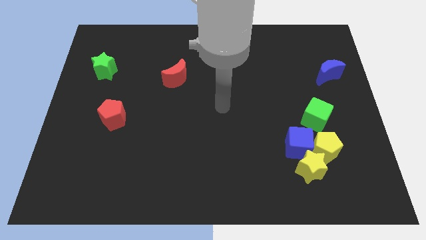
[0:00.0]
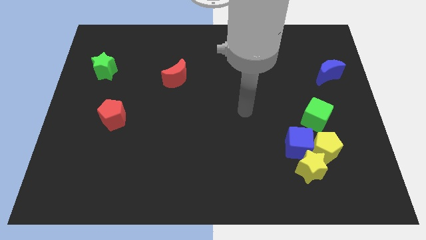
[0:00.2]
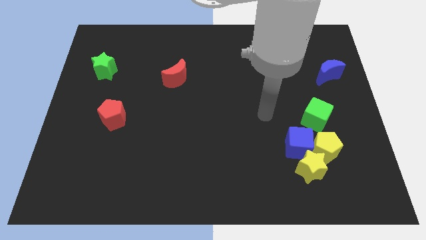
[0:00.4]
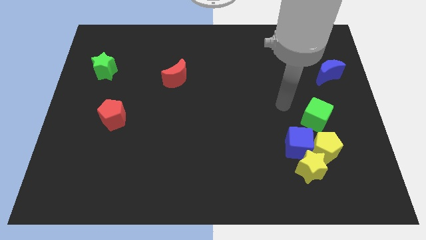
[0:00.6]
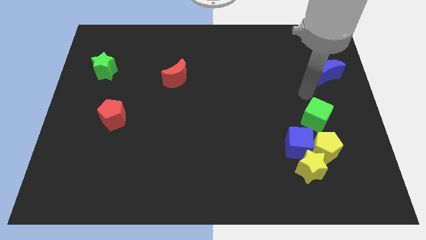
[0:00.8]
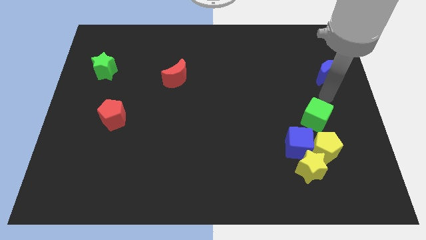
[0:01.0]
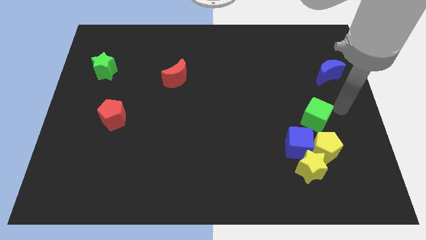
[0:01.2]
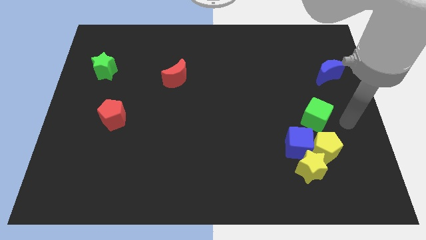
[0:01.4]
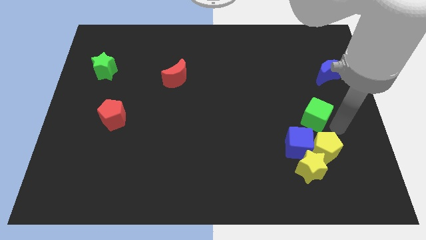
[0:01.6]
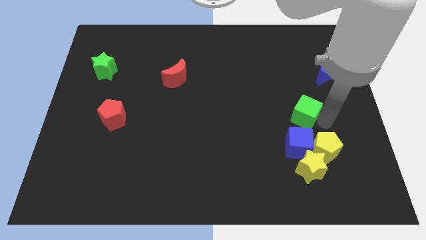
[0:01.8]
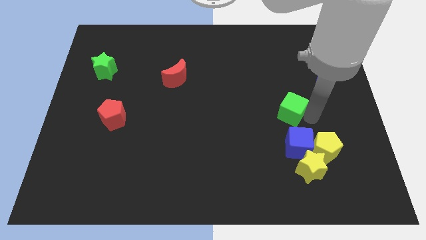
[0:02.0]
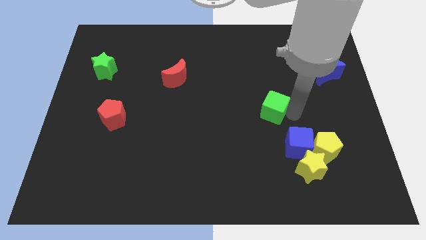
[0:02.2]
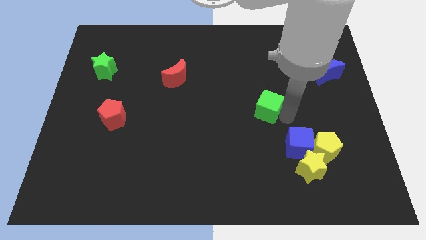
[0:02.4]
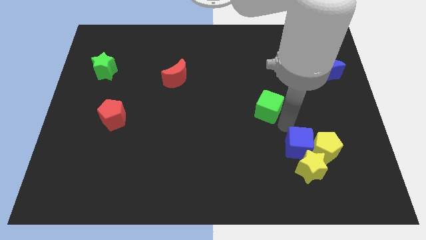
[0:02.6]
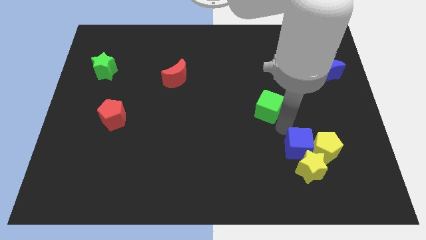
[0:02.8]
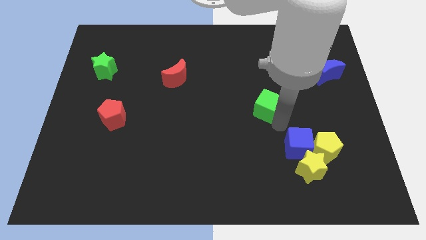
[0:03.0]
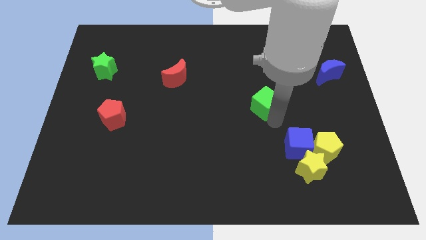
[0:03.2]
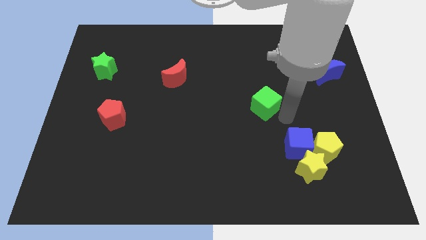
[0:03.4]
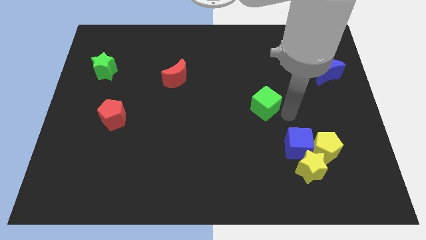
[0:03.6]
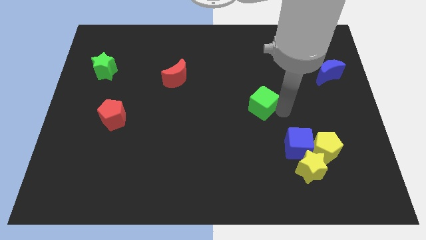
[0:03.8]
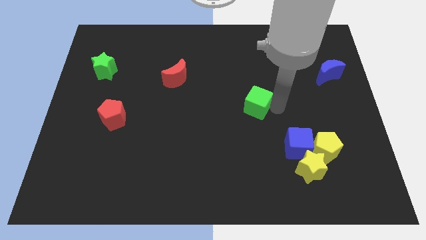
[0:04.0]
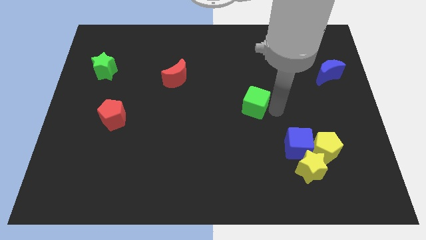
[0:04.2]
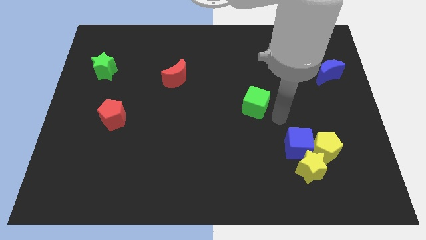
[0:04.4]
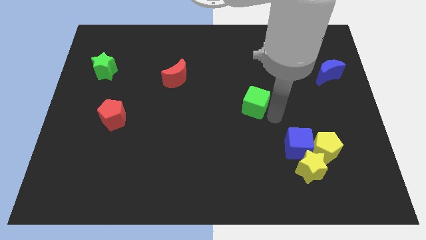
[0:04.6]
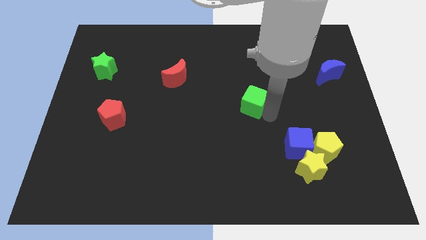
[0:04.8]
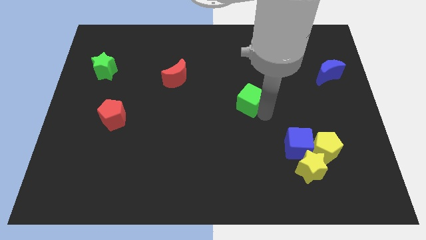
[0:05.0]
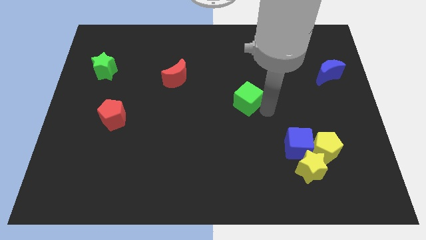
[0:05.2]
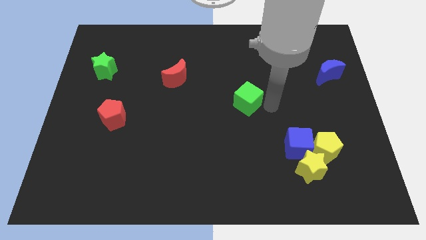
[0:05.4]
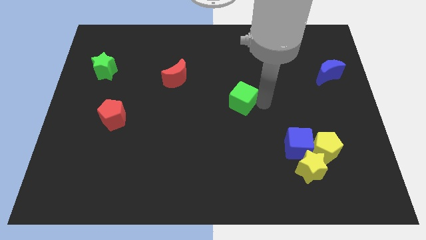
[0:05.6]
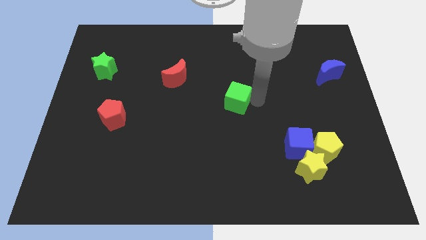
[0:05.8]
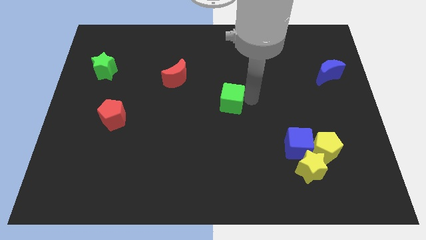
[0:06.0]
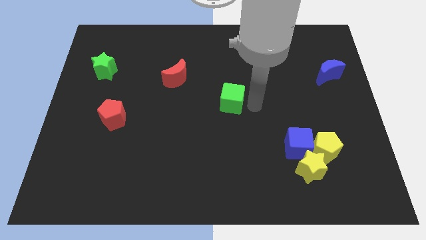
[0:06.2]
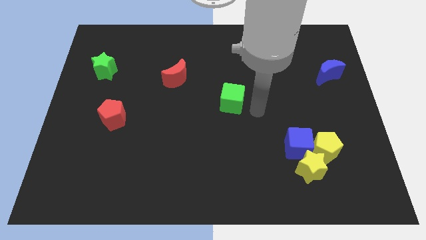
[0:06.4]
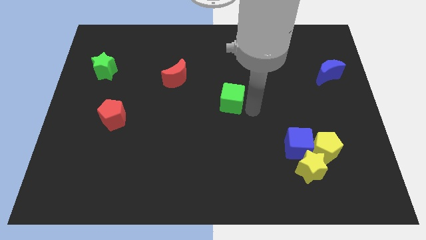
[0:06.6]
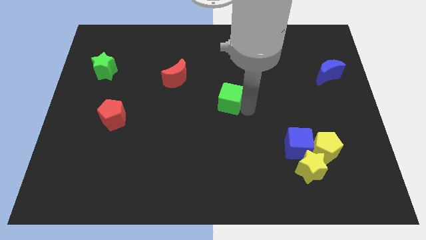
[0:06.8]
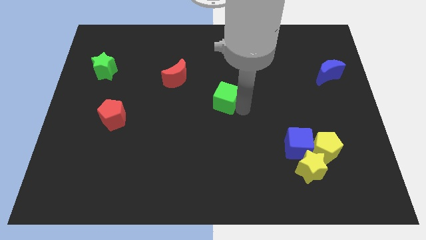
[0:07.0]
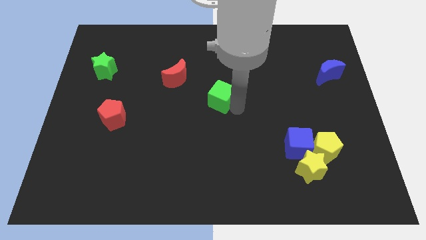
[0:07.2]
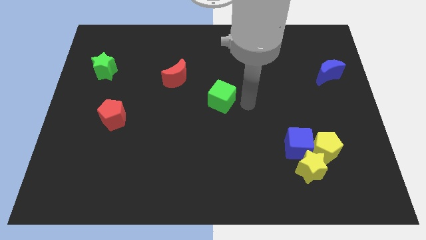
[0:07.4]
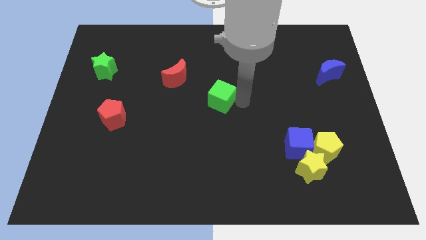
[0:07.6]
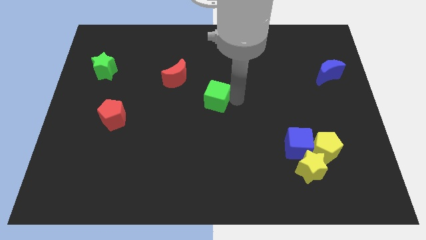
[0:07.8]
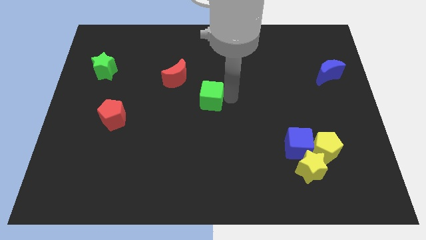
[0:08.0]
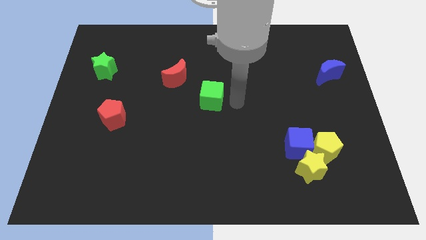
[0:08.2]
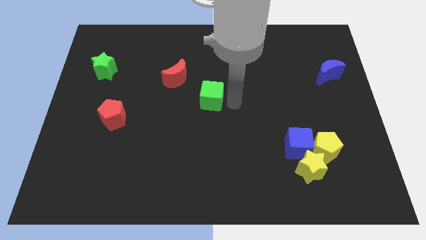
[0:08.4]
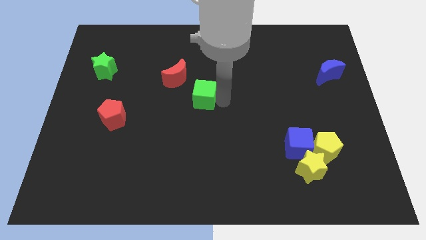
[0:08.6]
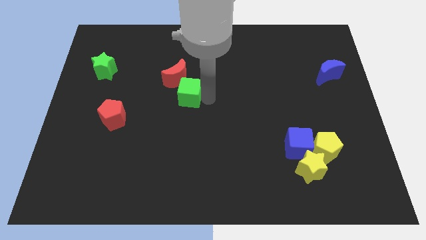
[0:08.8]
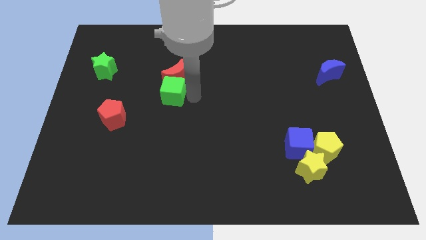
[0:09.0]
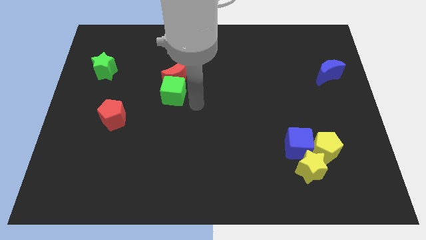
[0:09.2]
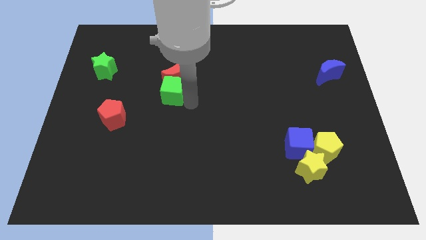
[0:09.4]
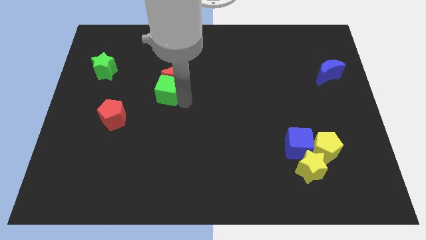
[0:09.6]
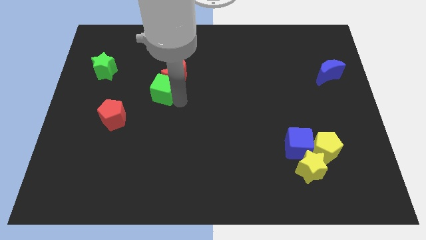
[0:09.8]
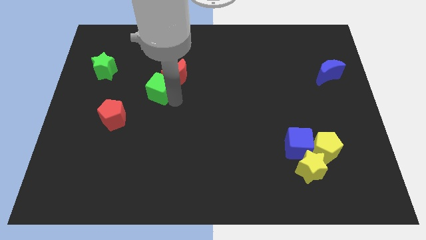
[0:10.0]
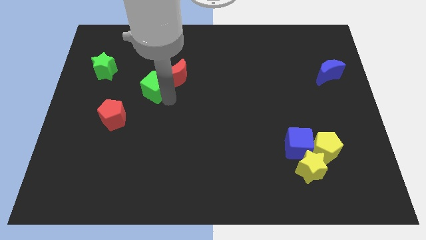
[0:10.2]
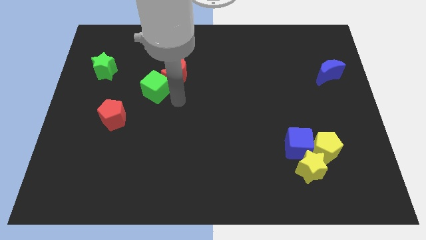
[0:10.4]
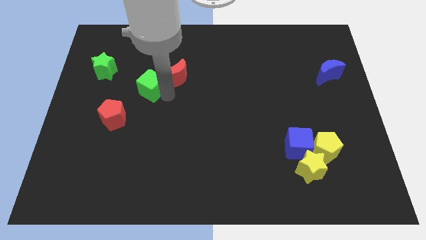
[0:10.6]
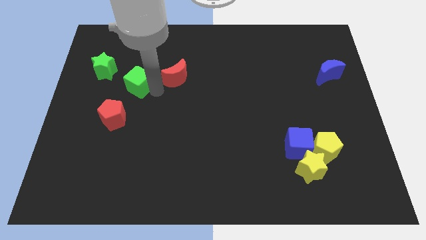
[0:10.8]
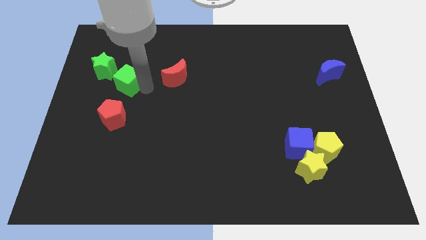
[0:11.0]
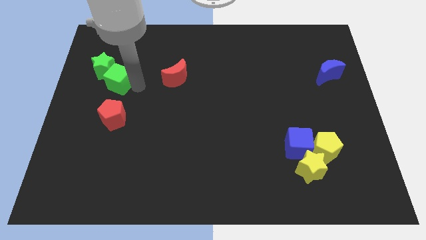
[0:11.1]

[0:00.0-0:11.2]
slide the green cube to the green star

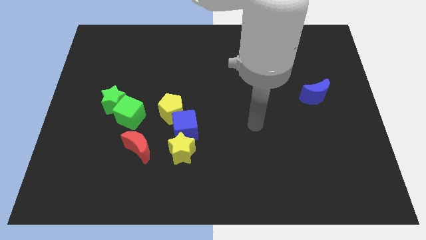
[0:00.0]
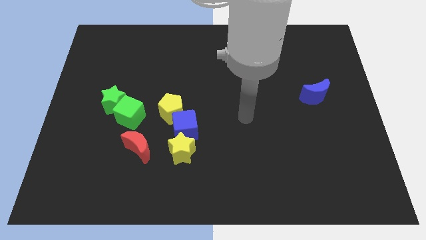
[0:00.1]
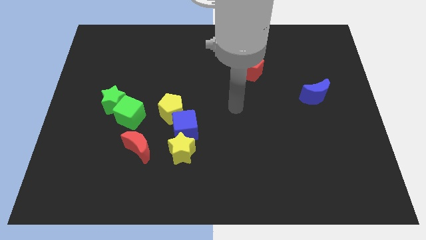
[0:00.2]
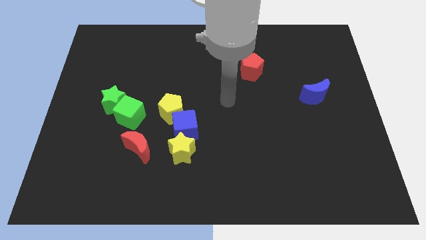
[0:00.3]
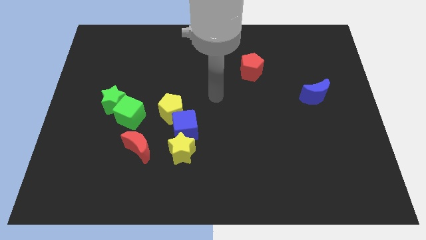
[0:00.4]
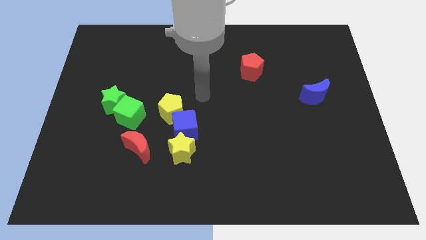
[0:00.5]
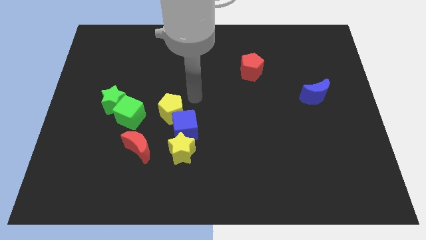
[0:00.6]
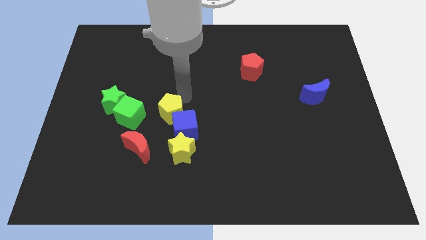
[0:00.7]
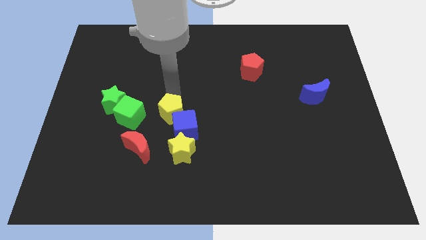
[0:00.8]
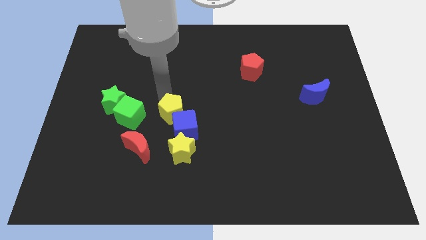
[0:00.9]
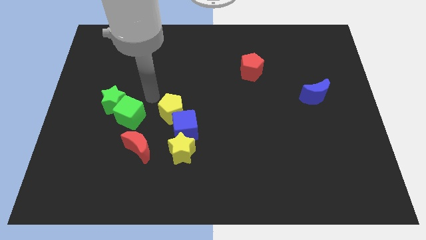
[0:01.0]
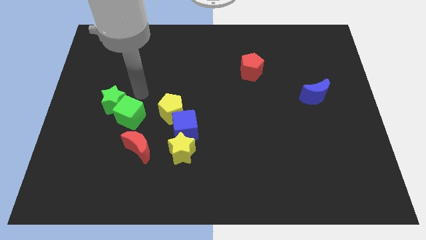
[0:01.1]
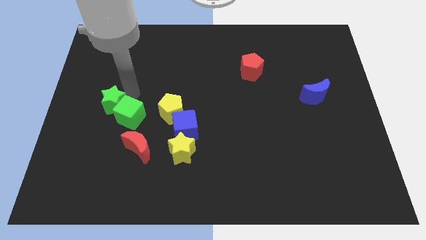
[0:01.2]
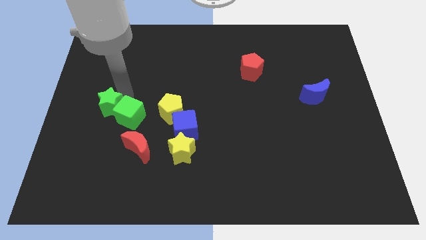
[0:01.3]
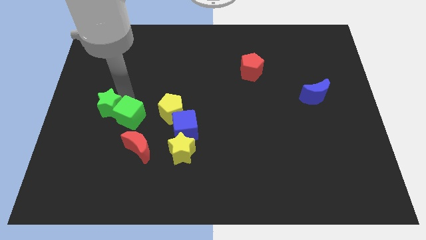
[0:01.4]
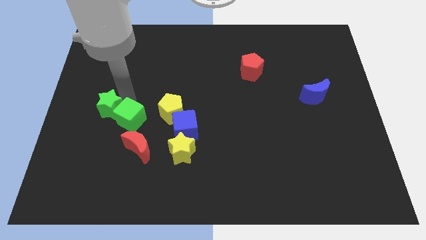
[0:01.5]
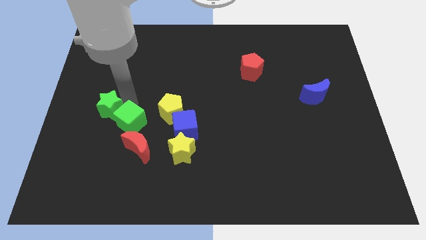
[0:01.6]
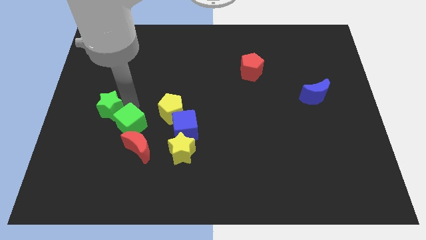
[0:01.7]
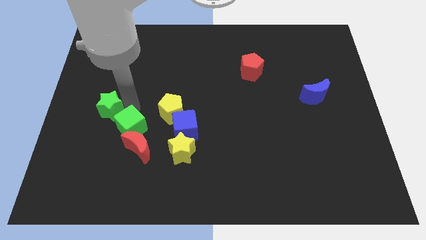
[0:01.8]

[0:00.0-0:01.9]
put the green cube towards the red moon
